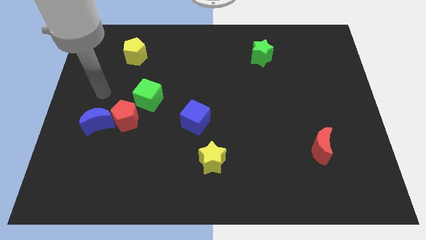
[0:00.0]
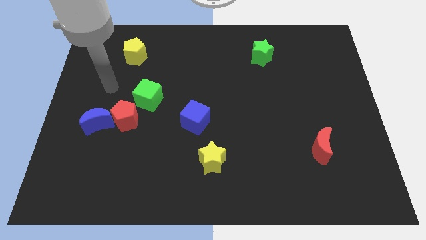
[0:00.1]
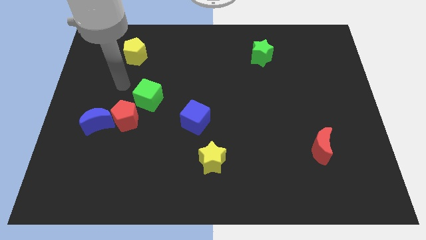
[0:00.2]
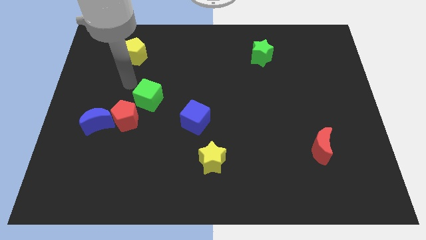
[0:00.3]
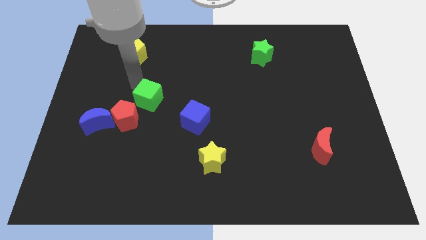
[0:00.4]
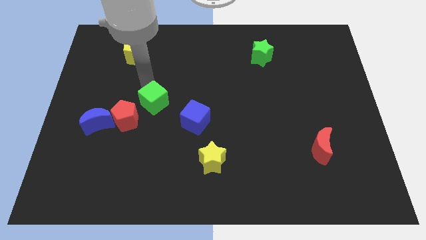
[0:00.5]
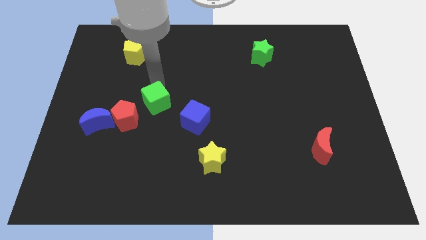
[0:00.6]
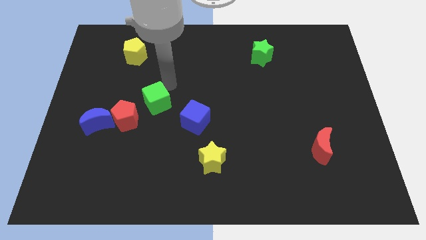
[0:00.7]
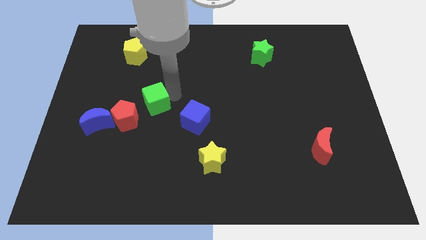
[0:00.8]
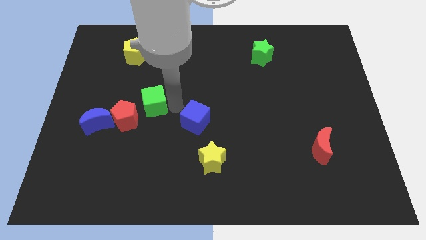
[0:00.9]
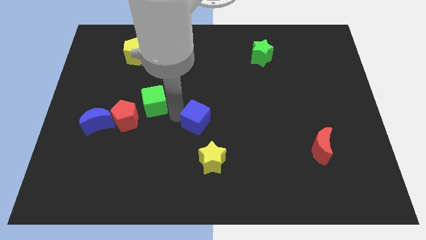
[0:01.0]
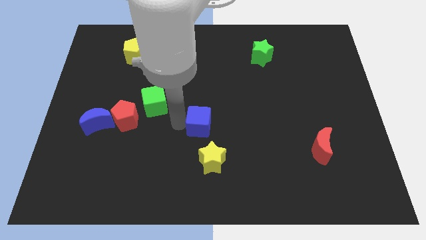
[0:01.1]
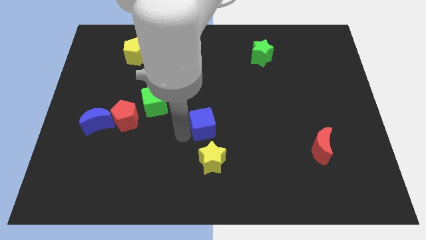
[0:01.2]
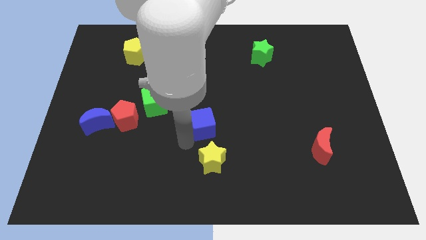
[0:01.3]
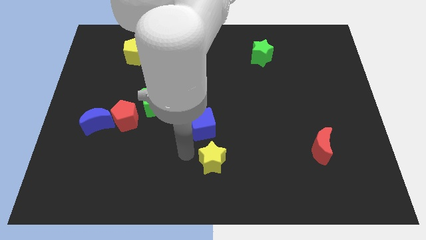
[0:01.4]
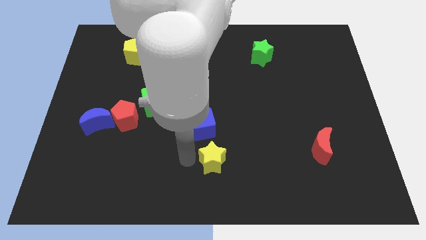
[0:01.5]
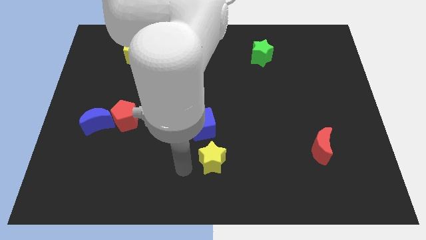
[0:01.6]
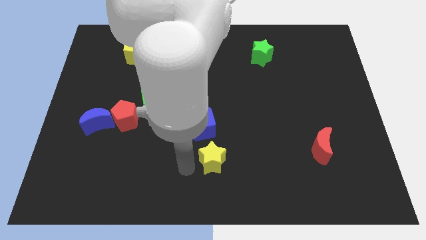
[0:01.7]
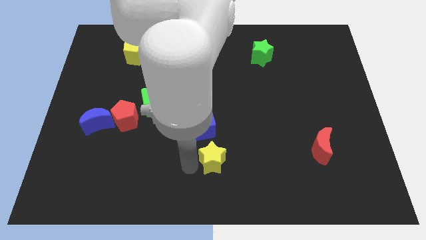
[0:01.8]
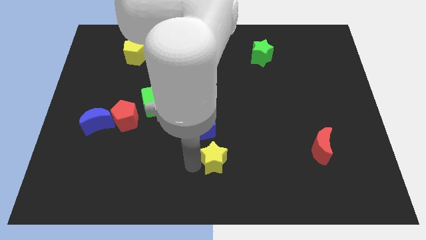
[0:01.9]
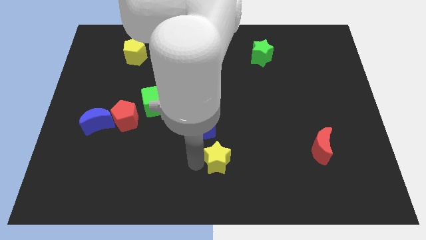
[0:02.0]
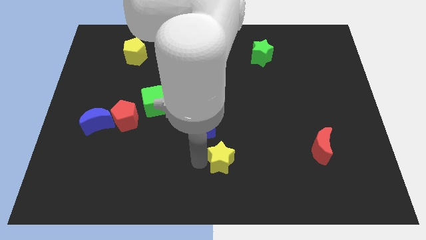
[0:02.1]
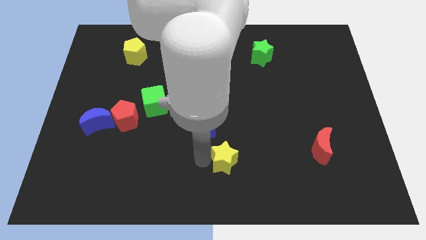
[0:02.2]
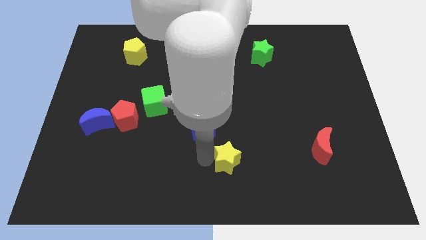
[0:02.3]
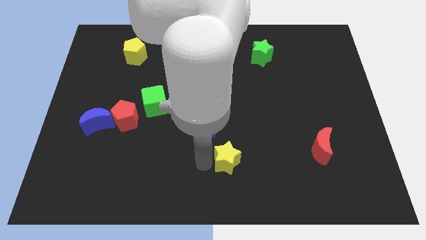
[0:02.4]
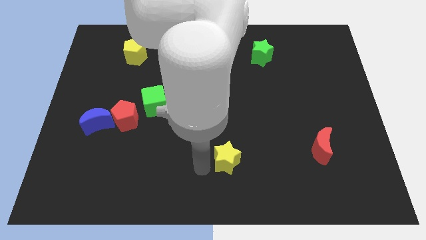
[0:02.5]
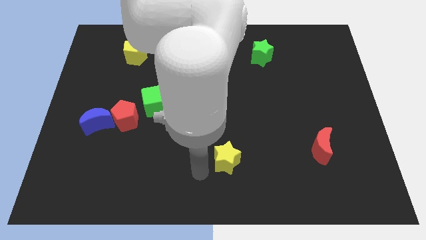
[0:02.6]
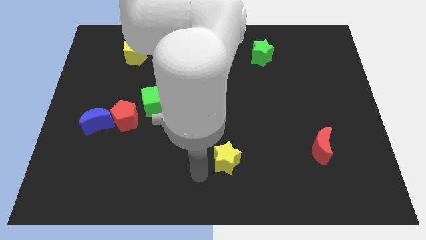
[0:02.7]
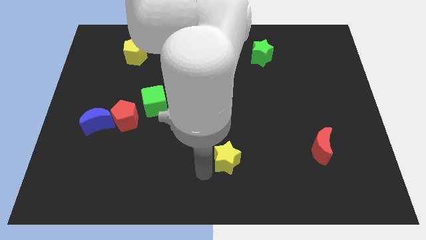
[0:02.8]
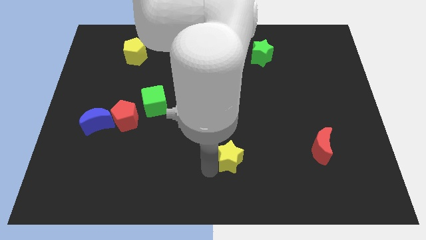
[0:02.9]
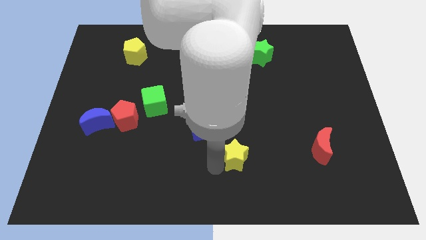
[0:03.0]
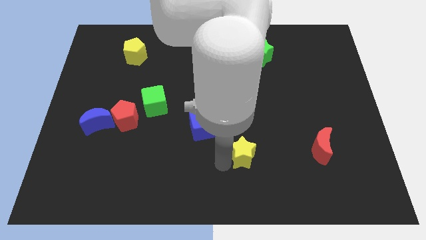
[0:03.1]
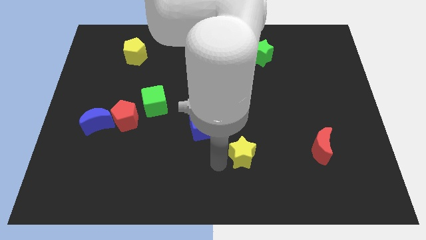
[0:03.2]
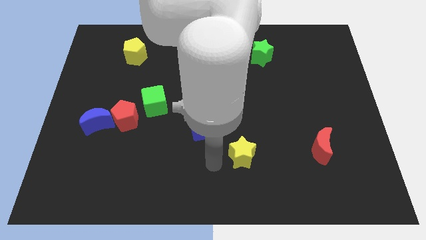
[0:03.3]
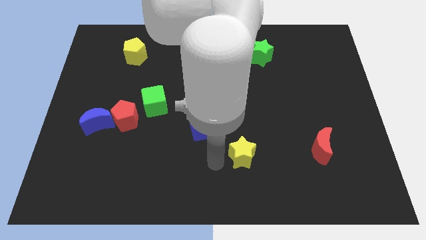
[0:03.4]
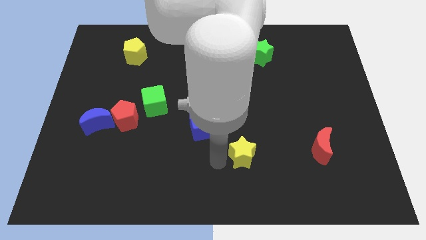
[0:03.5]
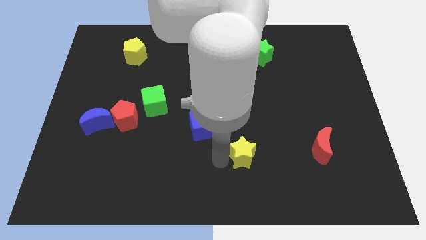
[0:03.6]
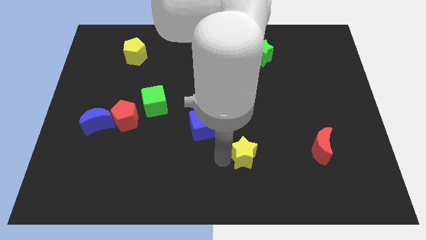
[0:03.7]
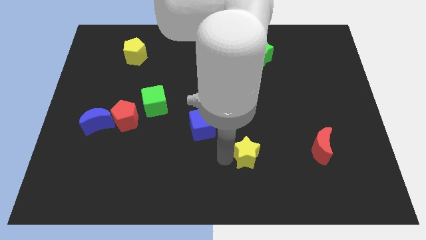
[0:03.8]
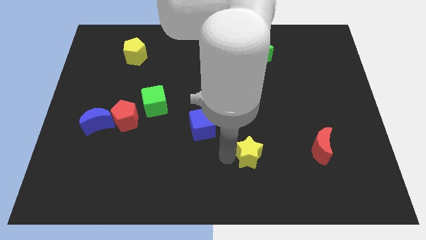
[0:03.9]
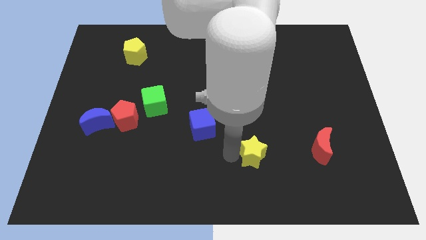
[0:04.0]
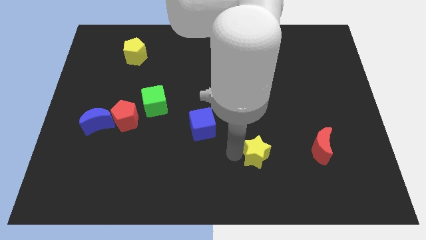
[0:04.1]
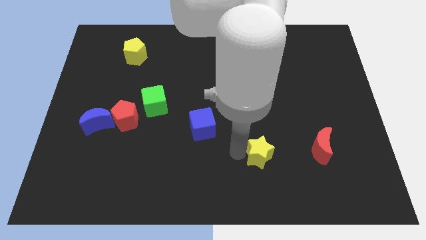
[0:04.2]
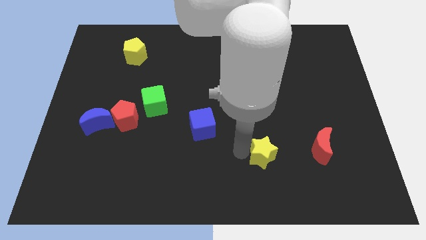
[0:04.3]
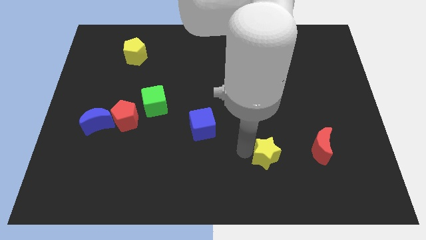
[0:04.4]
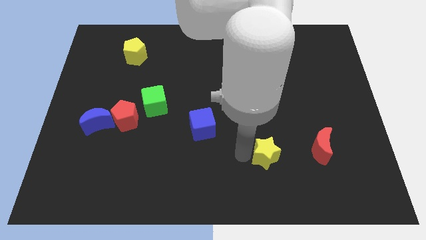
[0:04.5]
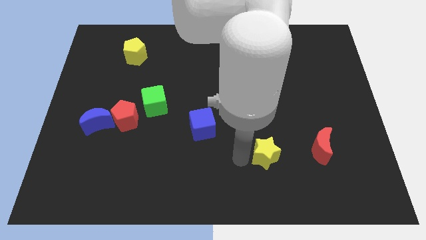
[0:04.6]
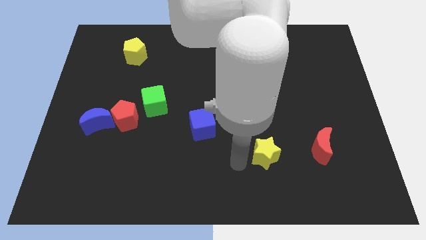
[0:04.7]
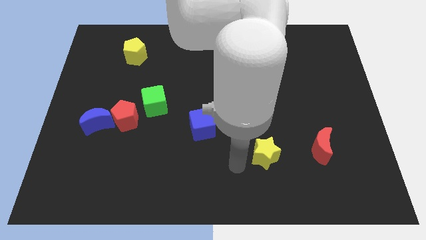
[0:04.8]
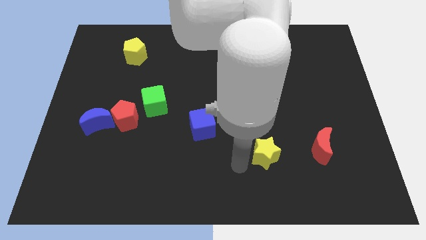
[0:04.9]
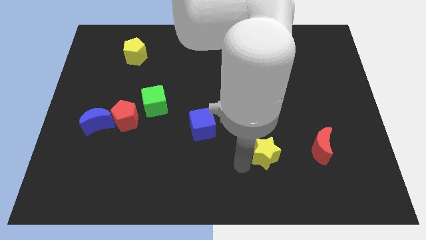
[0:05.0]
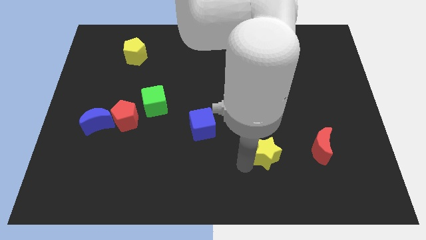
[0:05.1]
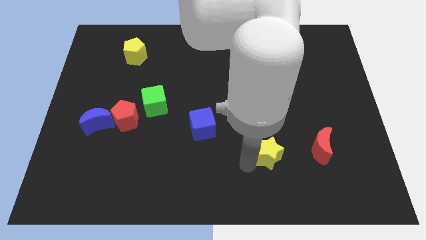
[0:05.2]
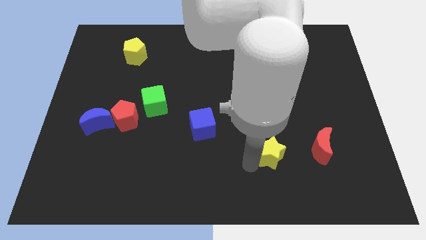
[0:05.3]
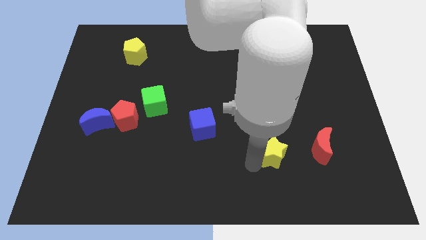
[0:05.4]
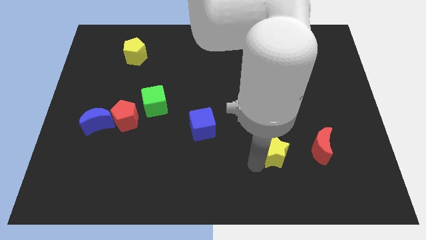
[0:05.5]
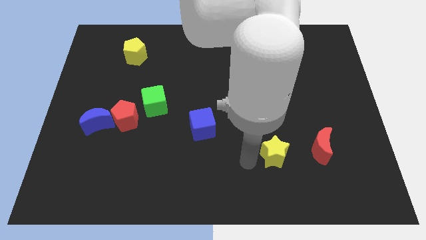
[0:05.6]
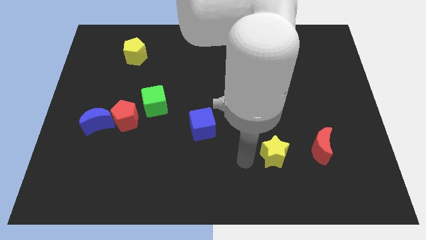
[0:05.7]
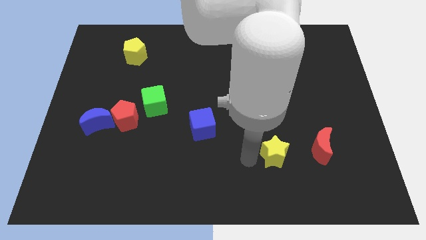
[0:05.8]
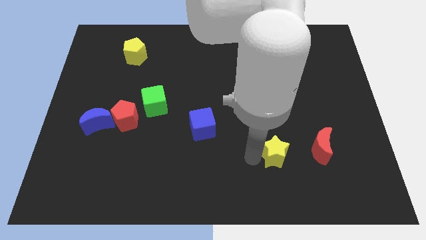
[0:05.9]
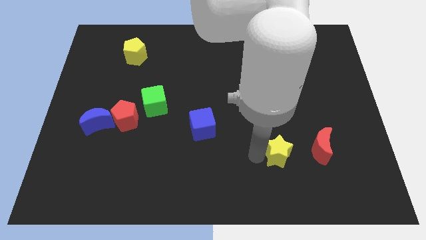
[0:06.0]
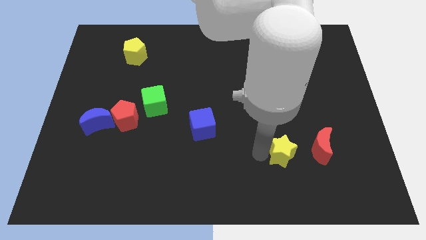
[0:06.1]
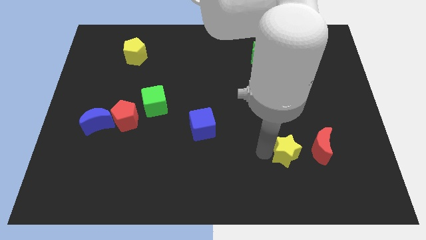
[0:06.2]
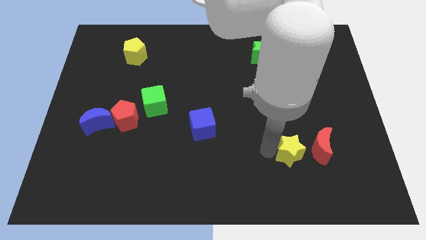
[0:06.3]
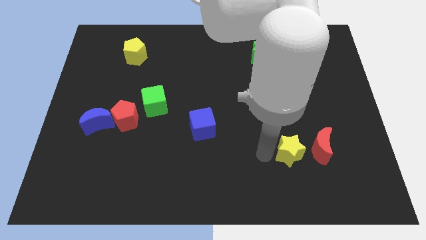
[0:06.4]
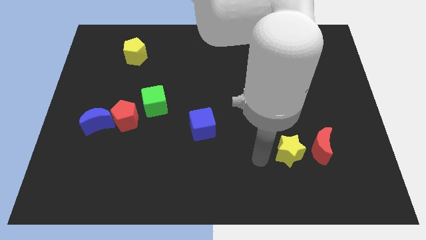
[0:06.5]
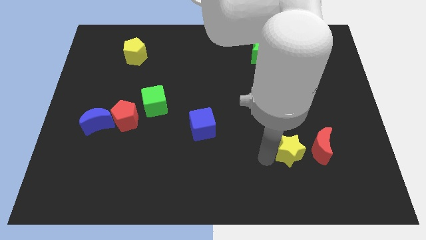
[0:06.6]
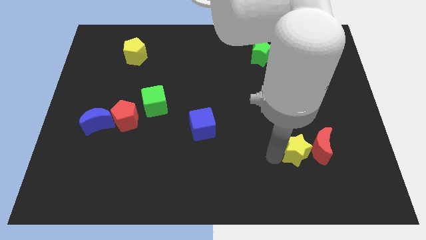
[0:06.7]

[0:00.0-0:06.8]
push the yellow star next to the red moon
